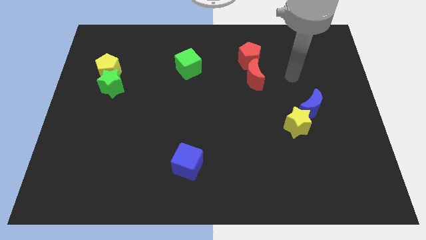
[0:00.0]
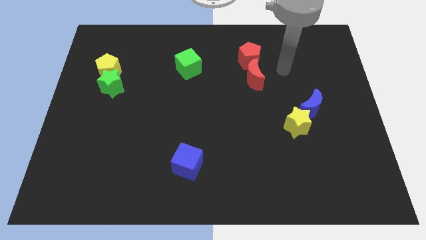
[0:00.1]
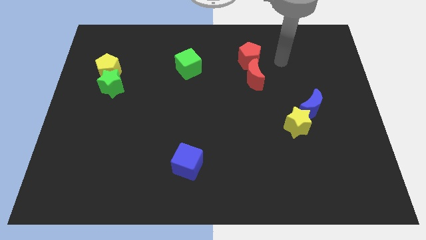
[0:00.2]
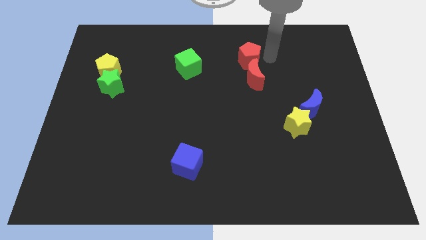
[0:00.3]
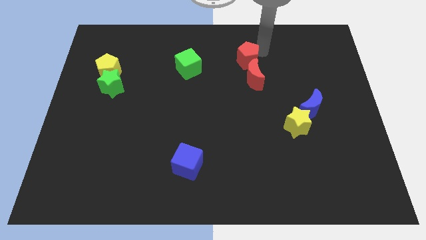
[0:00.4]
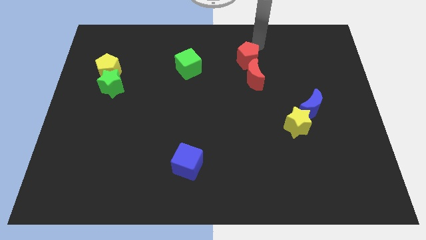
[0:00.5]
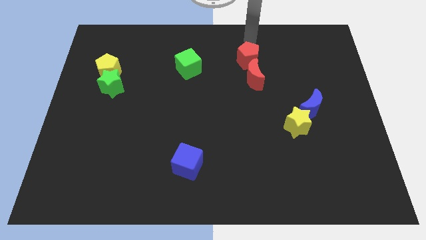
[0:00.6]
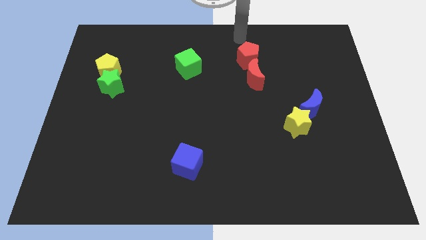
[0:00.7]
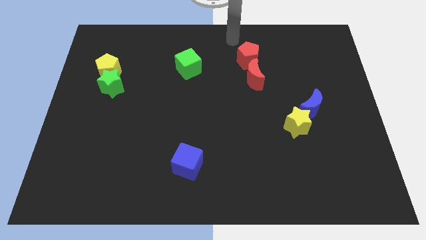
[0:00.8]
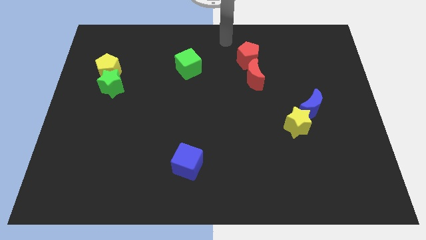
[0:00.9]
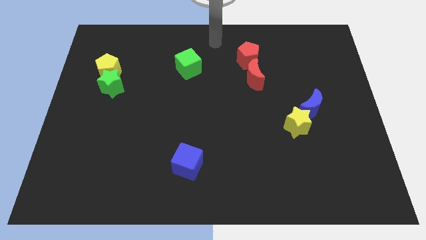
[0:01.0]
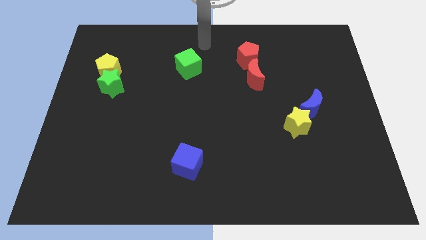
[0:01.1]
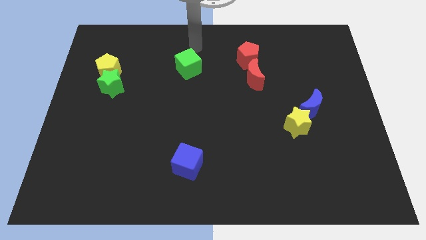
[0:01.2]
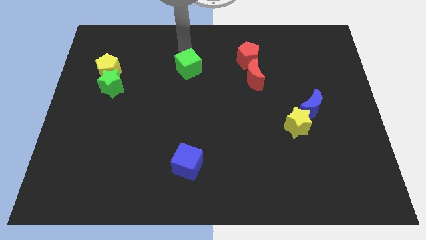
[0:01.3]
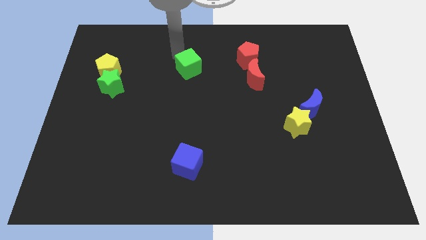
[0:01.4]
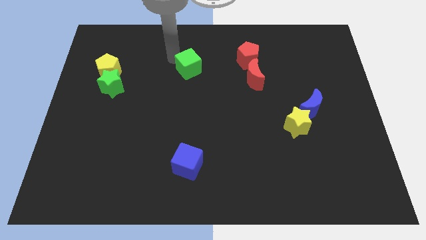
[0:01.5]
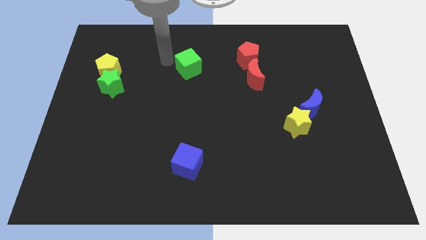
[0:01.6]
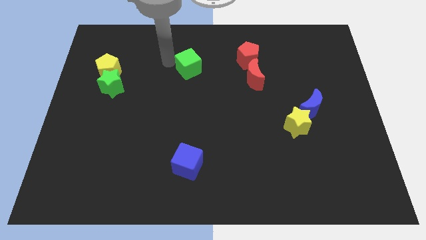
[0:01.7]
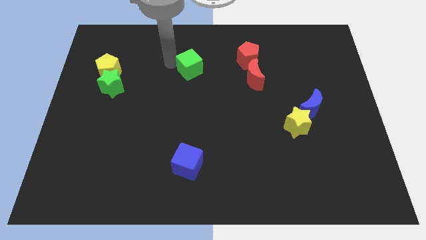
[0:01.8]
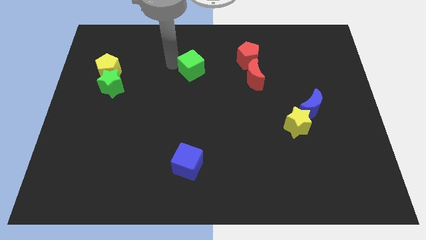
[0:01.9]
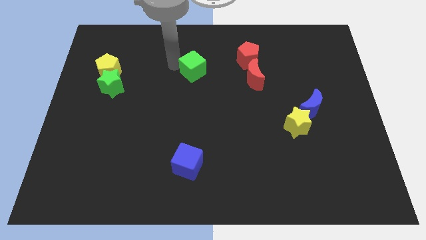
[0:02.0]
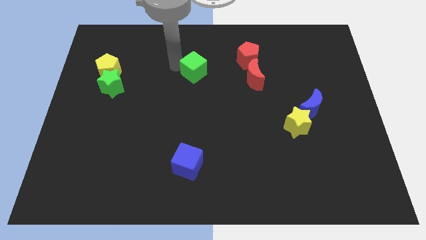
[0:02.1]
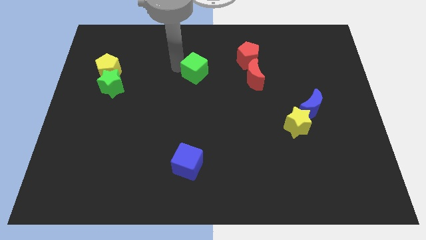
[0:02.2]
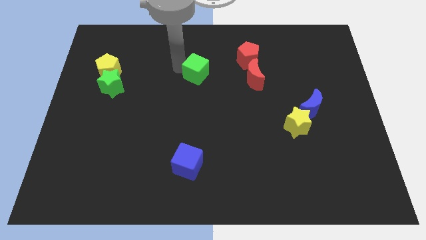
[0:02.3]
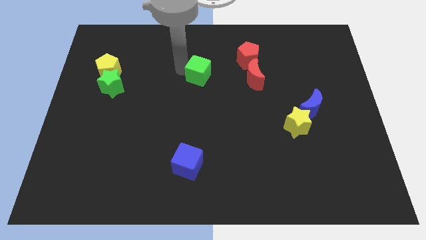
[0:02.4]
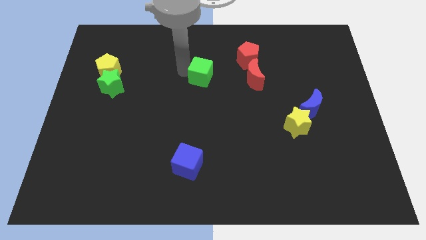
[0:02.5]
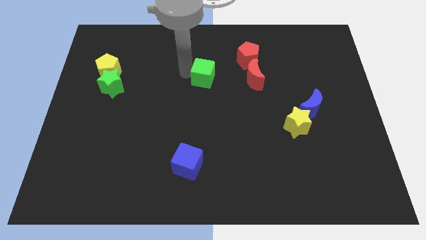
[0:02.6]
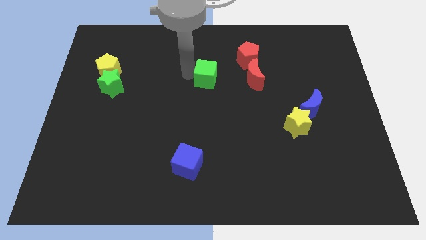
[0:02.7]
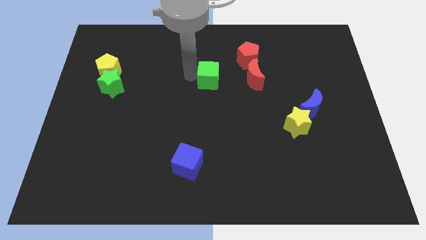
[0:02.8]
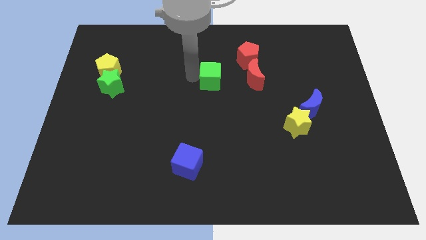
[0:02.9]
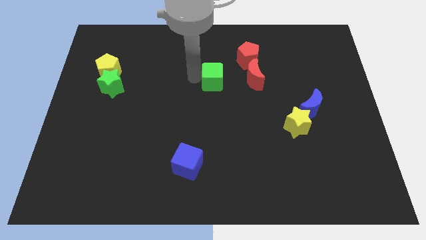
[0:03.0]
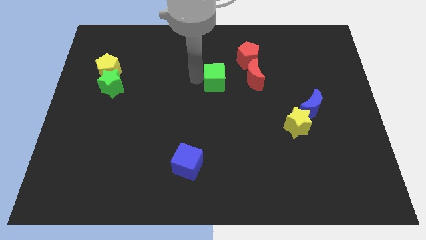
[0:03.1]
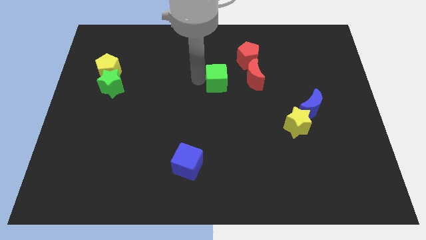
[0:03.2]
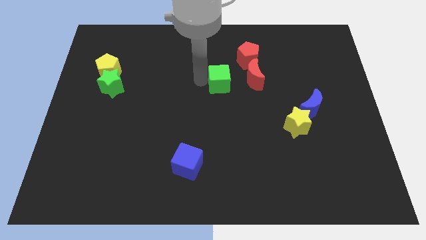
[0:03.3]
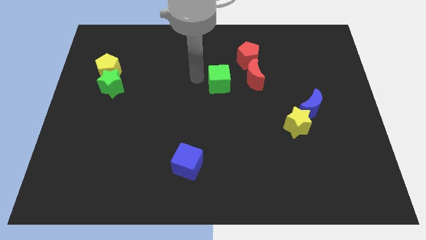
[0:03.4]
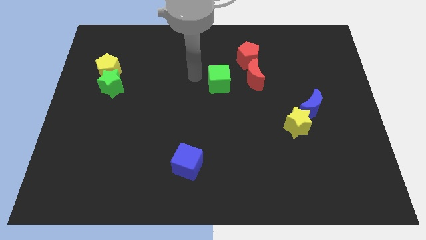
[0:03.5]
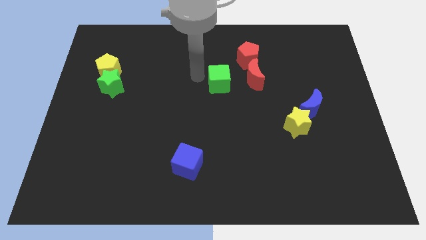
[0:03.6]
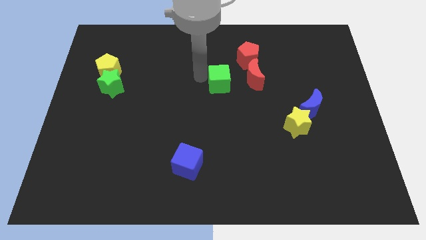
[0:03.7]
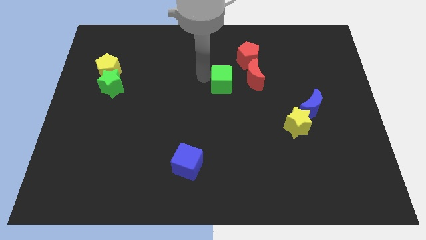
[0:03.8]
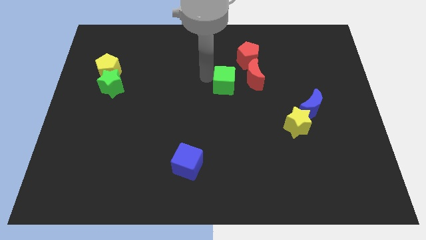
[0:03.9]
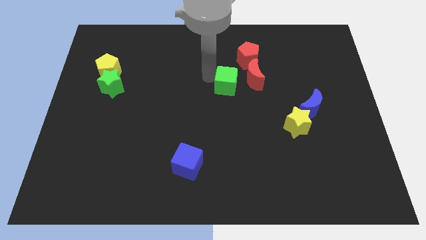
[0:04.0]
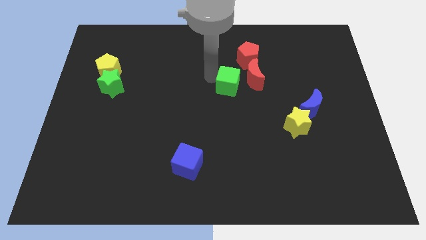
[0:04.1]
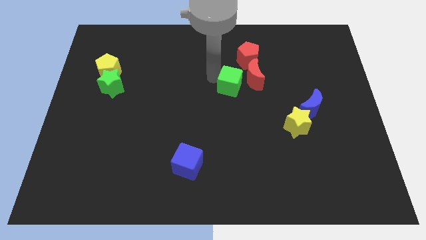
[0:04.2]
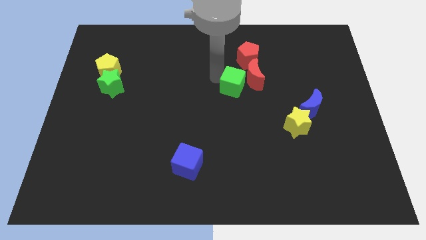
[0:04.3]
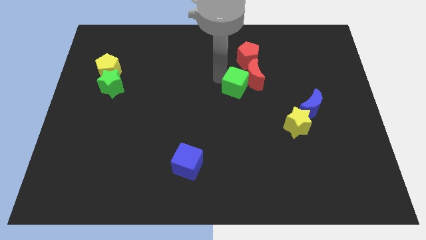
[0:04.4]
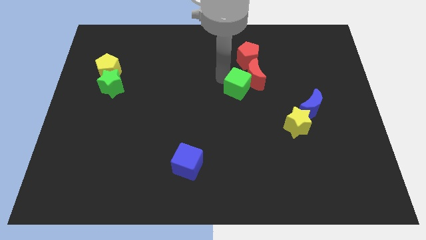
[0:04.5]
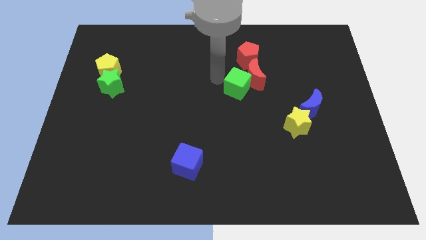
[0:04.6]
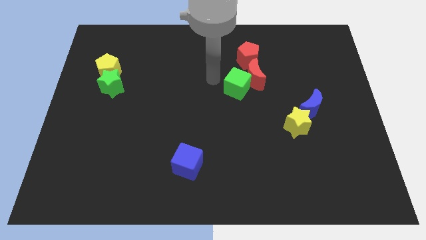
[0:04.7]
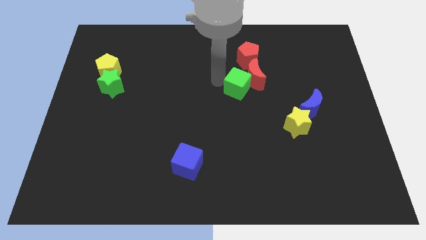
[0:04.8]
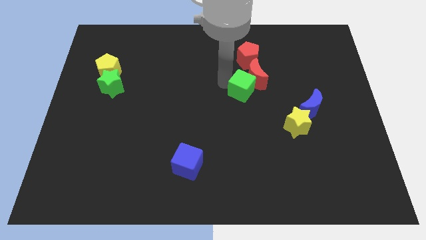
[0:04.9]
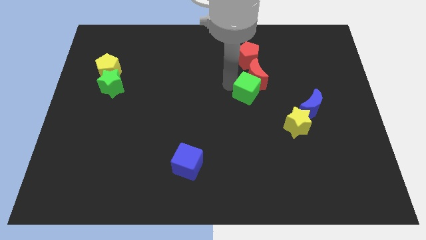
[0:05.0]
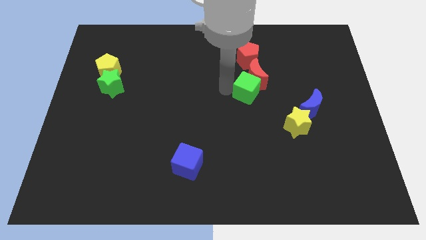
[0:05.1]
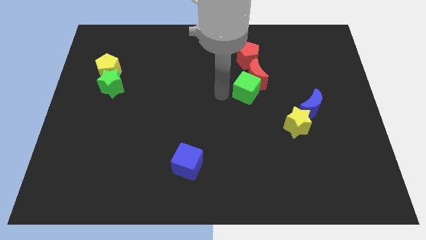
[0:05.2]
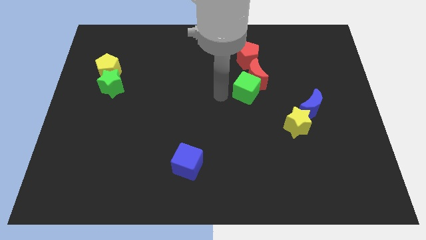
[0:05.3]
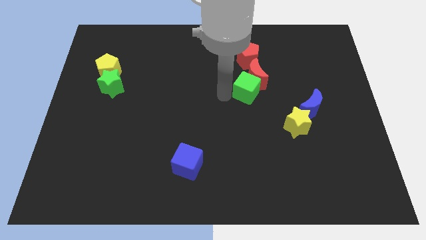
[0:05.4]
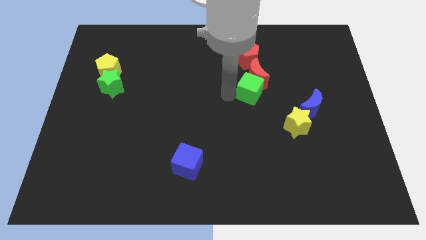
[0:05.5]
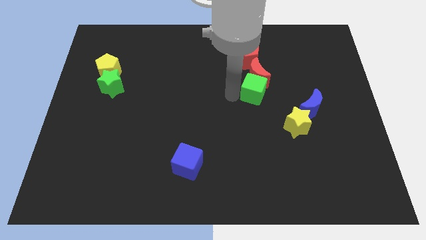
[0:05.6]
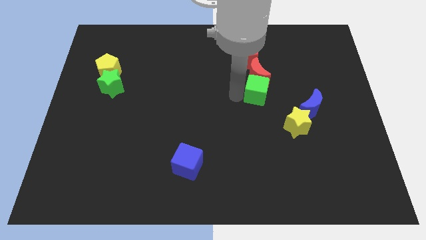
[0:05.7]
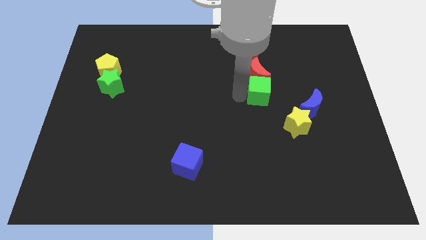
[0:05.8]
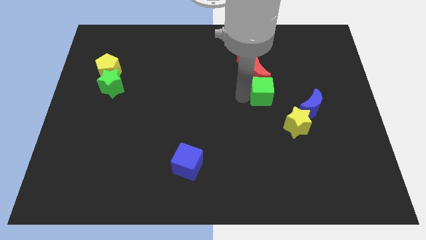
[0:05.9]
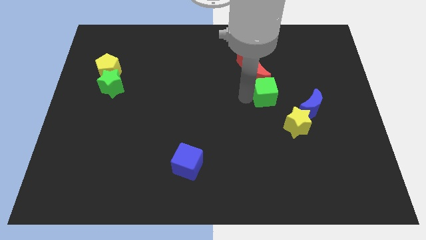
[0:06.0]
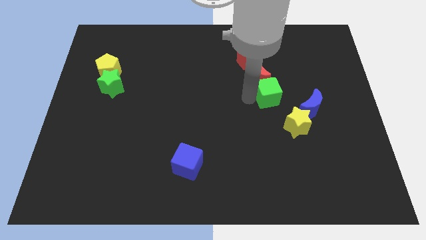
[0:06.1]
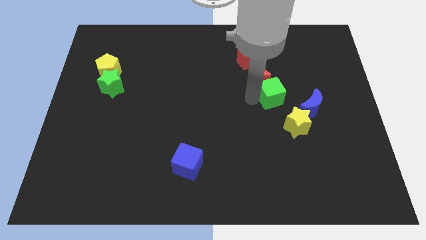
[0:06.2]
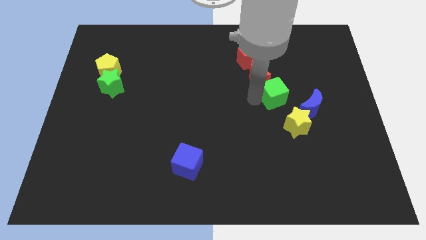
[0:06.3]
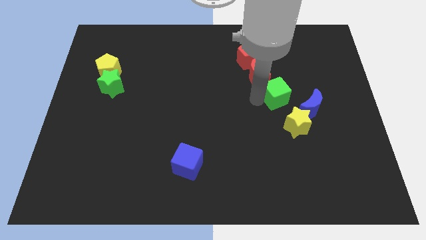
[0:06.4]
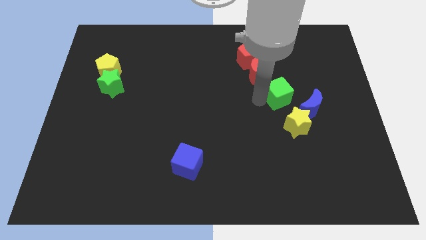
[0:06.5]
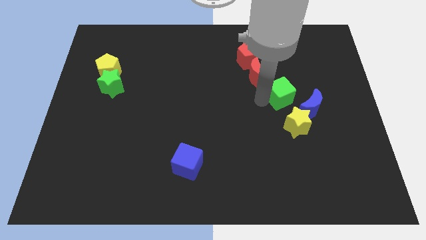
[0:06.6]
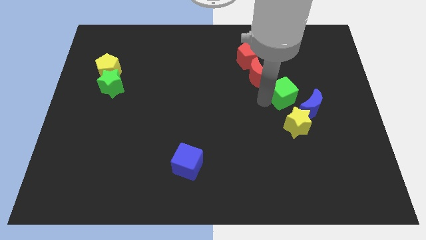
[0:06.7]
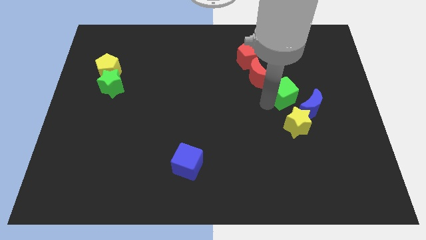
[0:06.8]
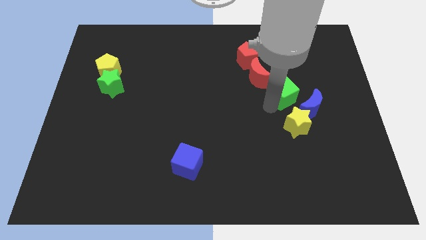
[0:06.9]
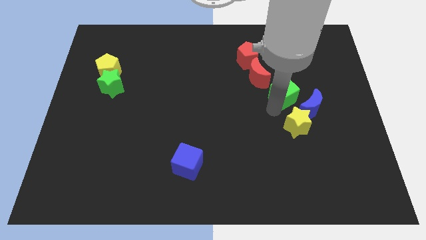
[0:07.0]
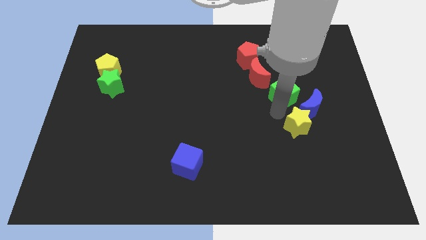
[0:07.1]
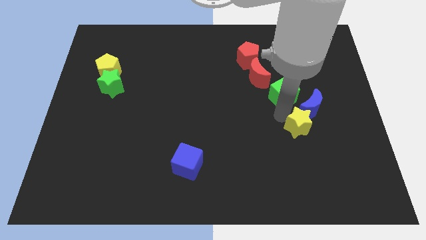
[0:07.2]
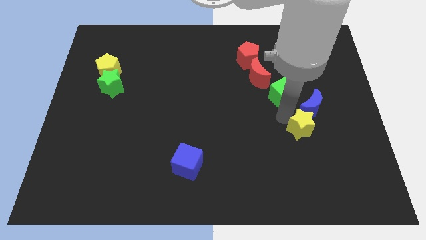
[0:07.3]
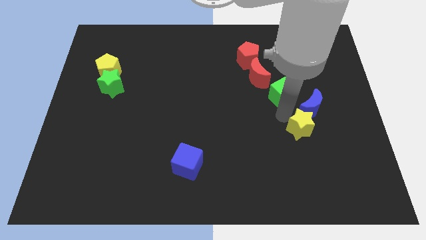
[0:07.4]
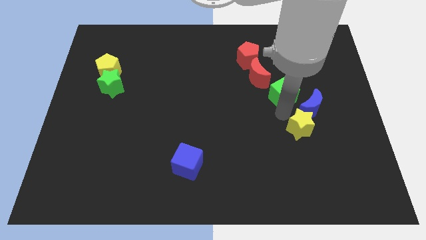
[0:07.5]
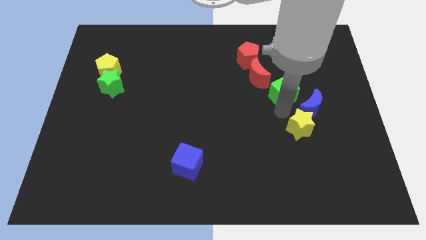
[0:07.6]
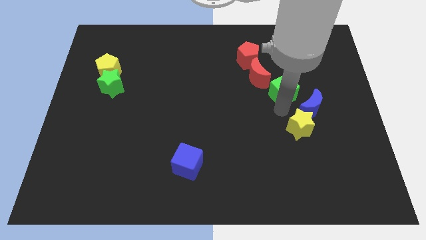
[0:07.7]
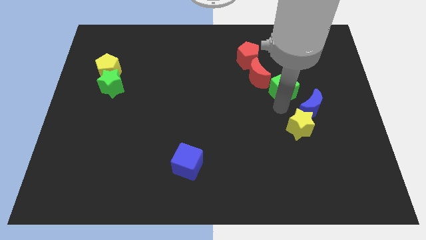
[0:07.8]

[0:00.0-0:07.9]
push the green cube to the right side of the red moon
